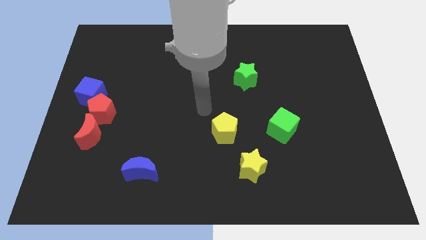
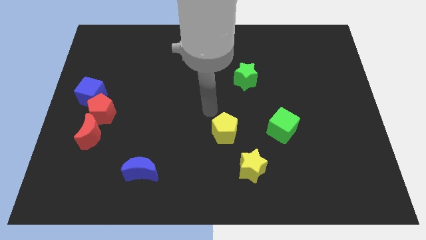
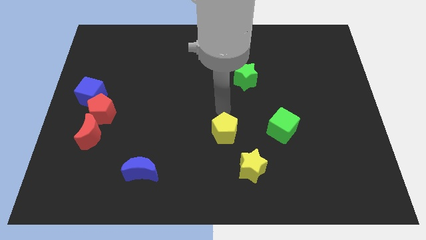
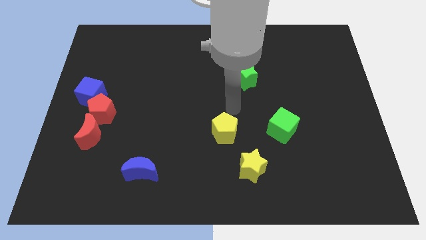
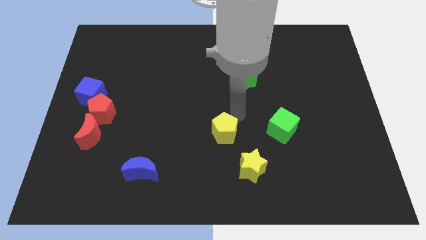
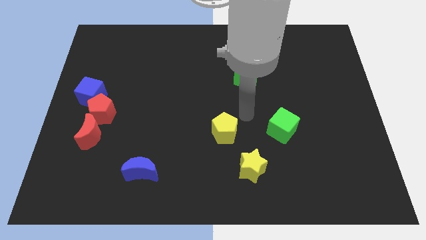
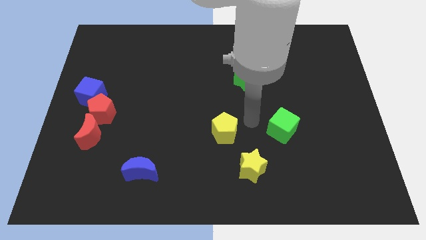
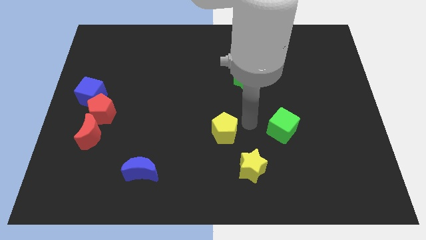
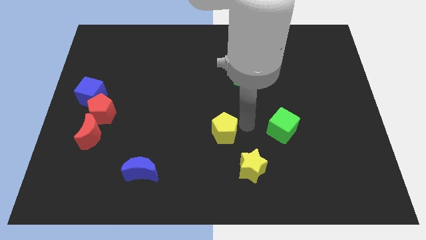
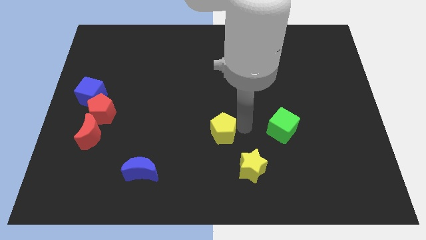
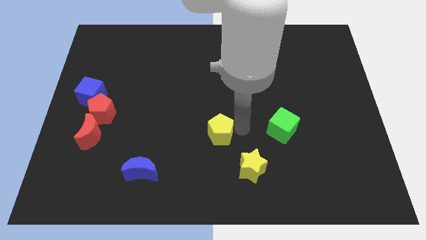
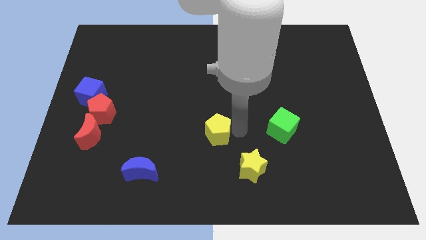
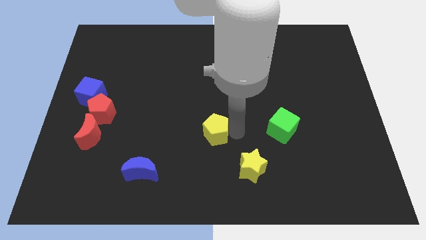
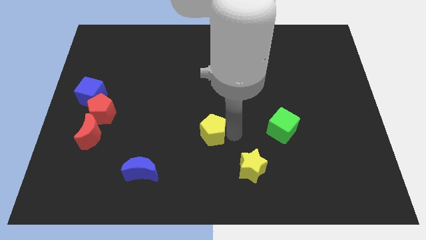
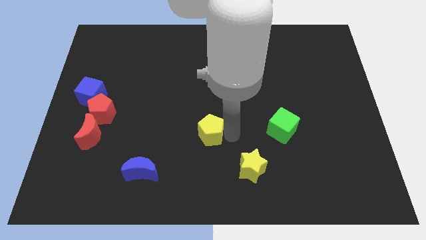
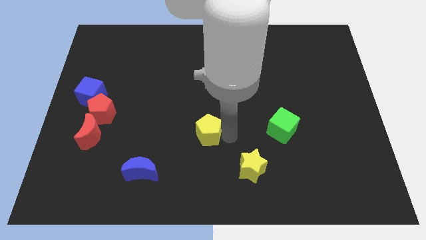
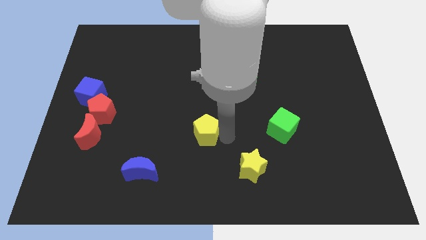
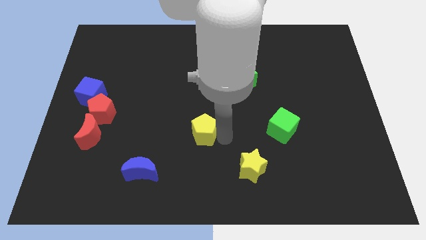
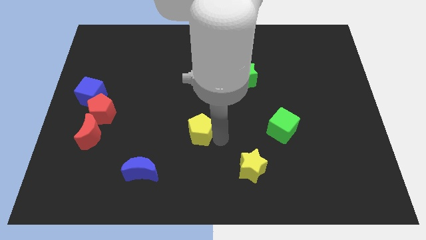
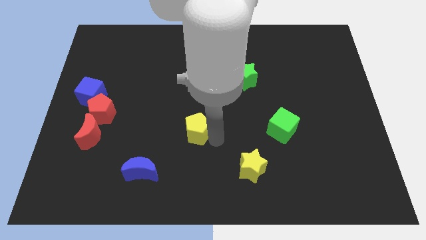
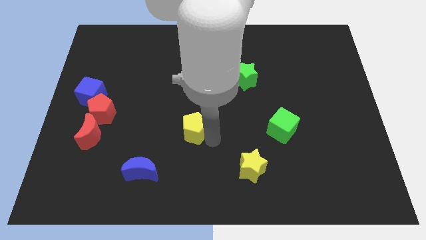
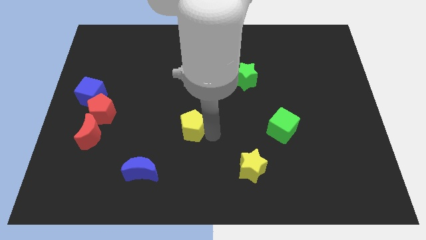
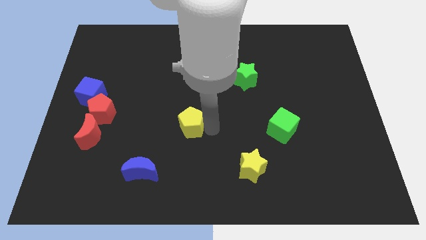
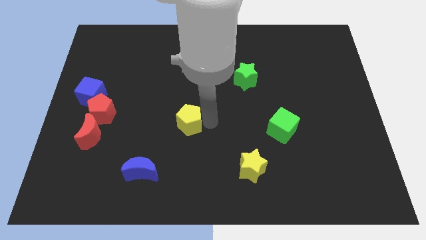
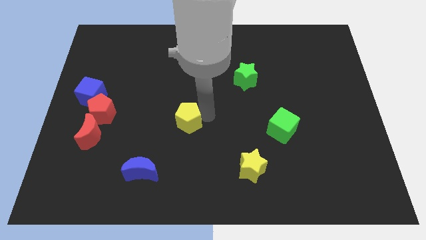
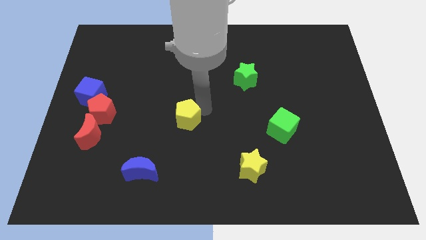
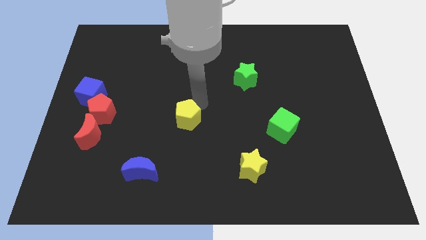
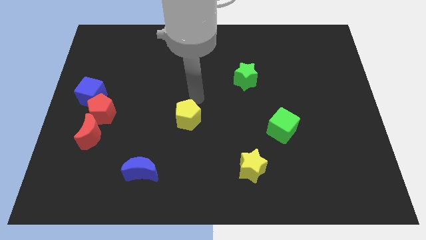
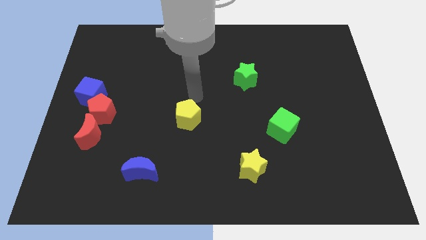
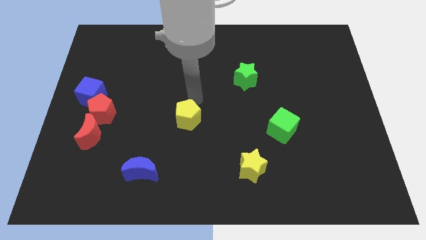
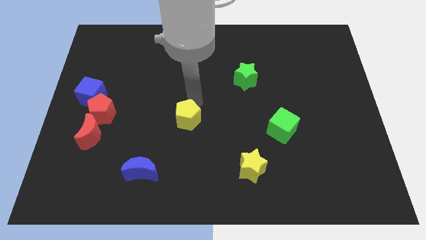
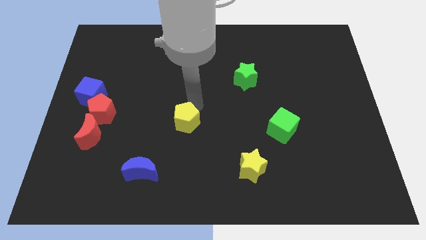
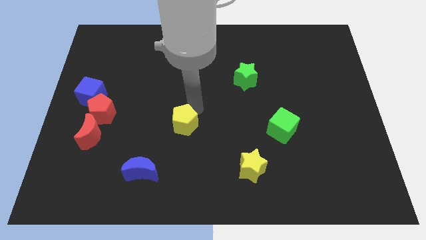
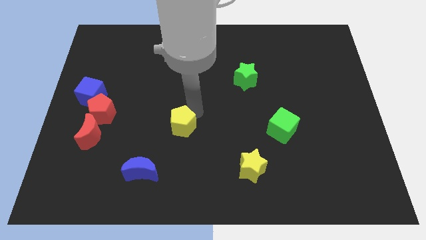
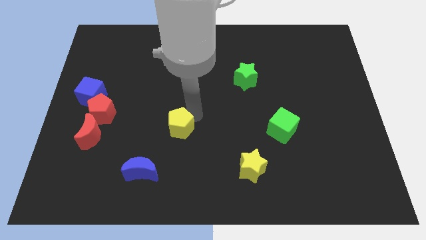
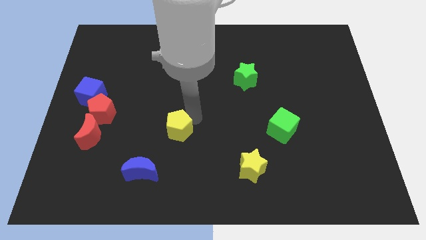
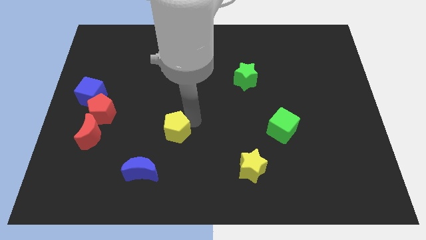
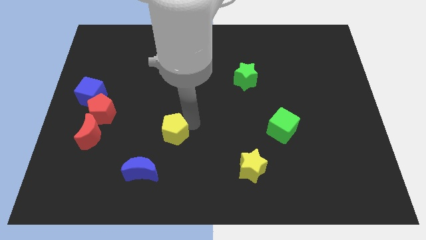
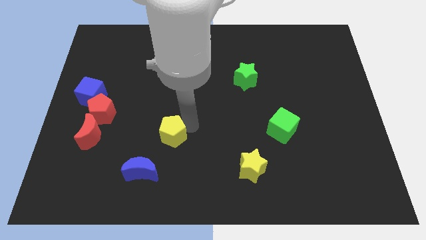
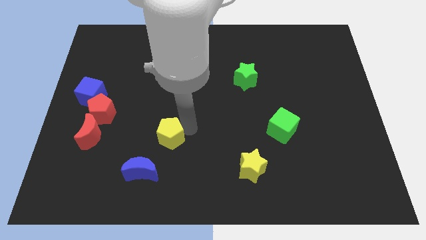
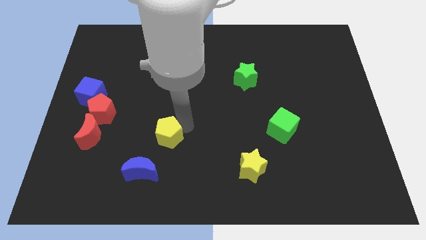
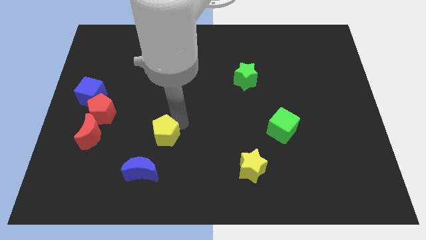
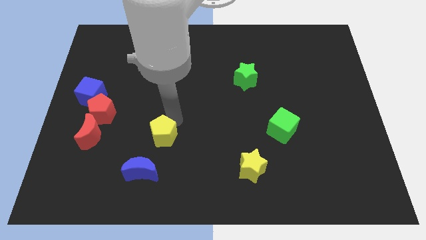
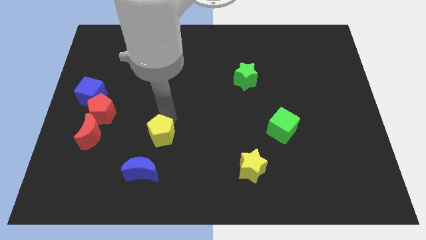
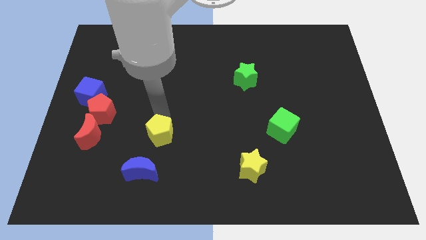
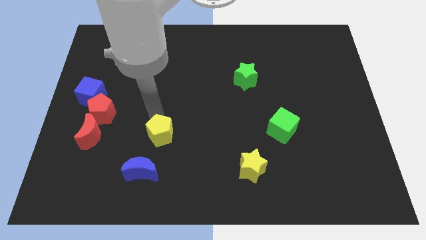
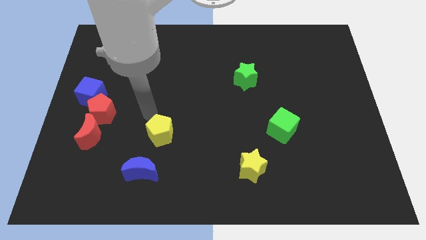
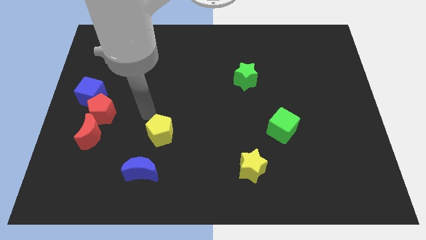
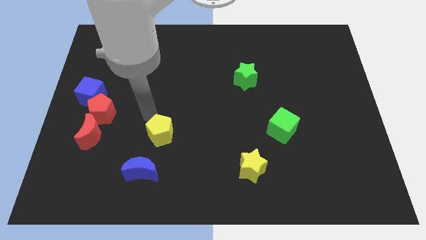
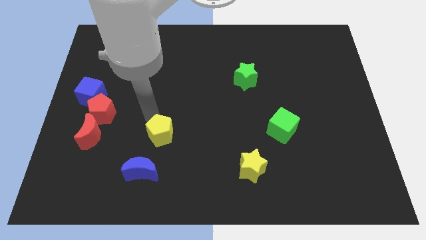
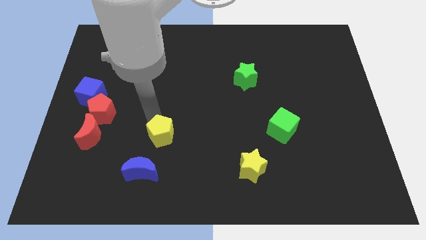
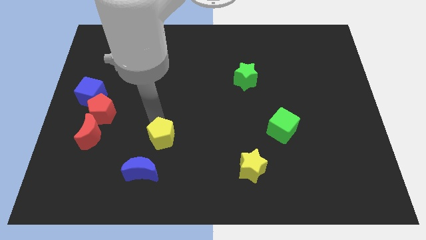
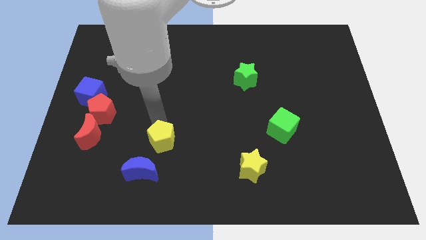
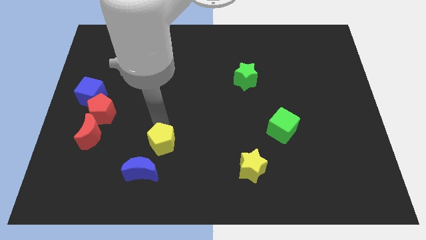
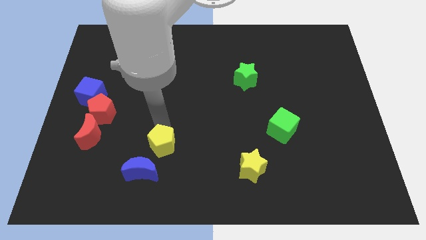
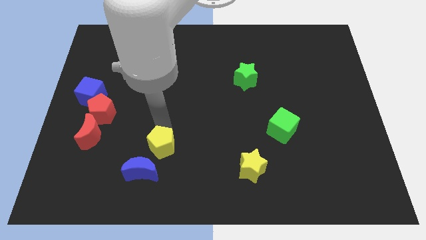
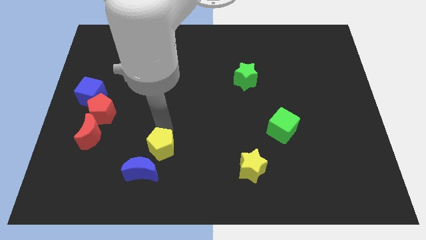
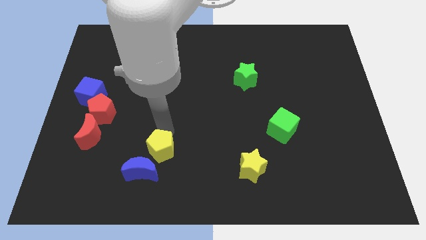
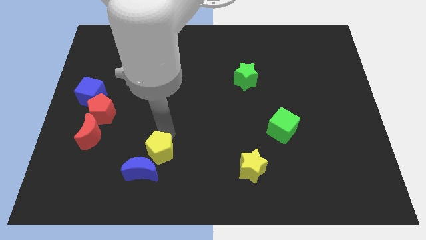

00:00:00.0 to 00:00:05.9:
put the yellow pentagon to the blue moon

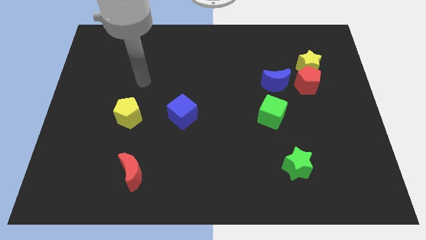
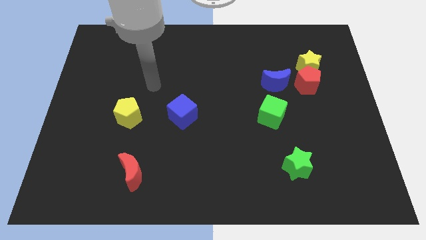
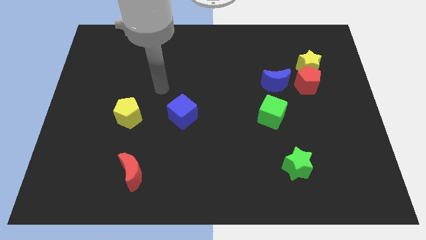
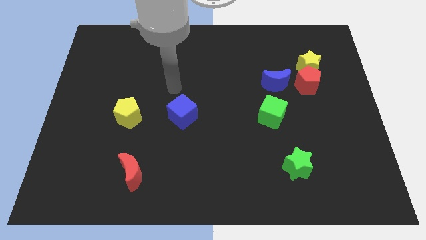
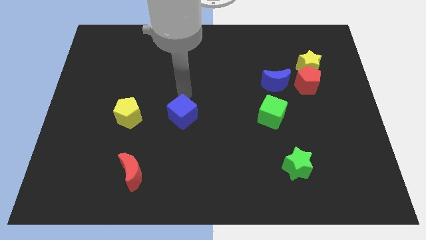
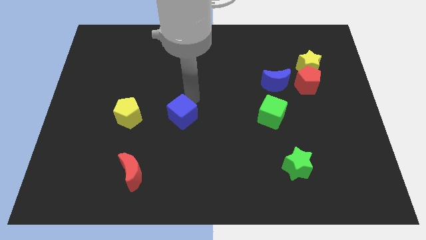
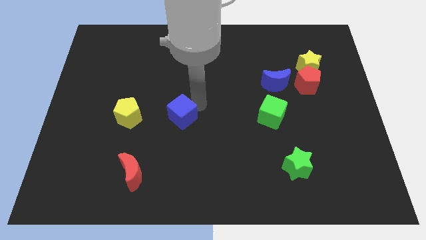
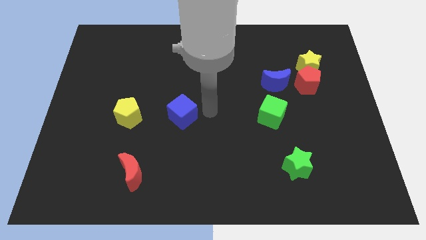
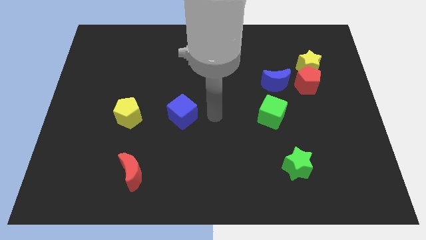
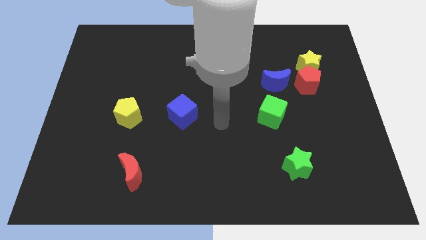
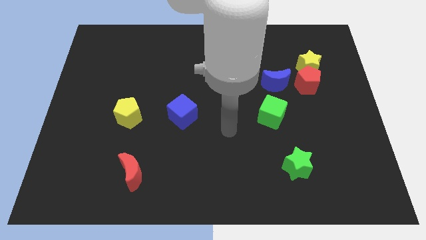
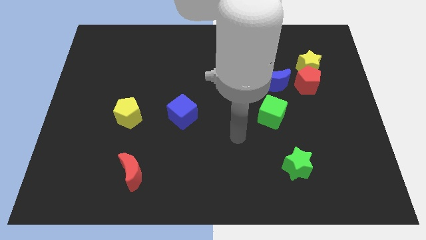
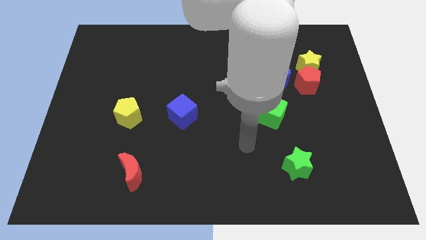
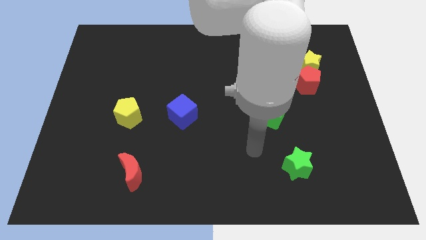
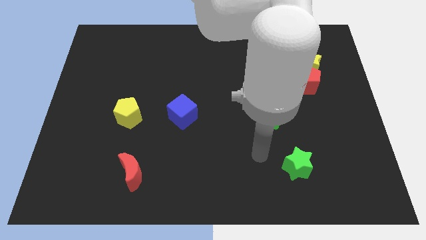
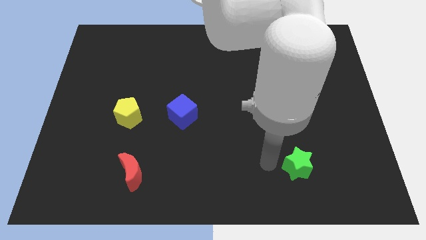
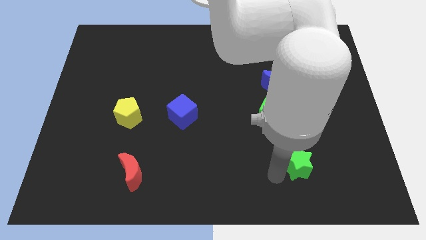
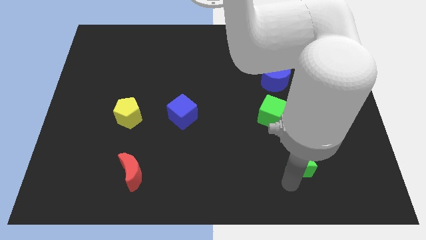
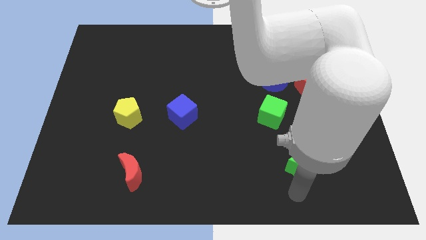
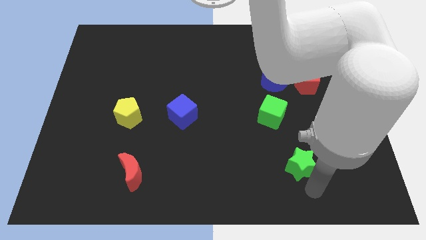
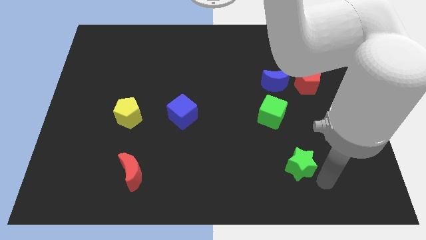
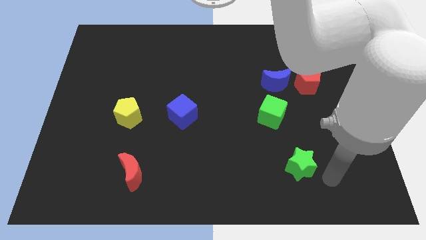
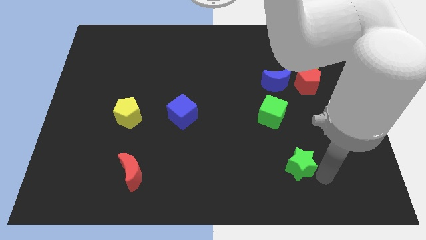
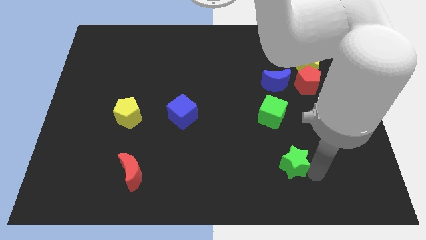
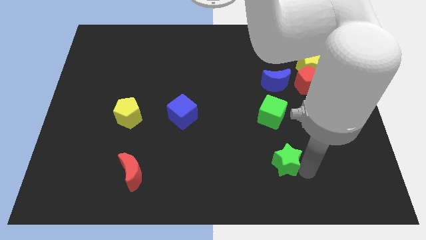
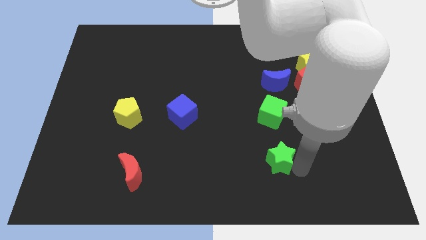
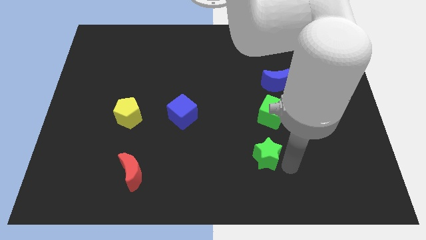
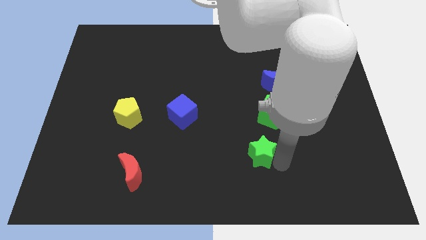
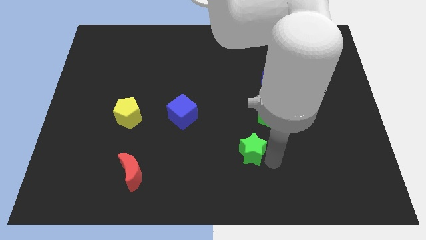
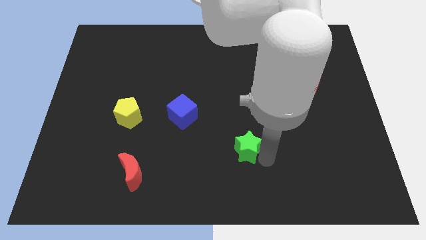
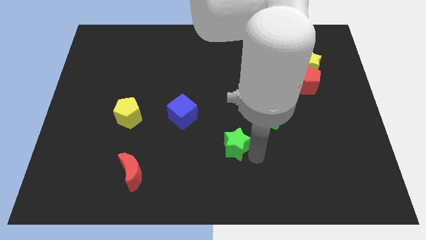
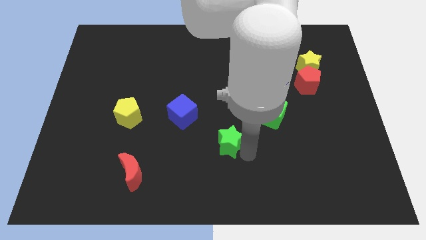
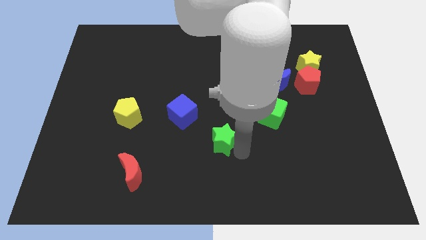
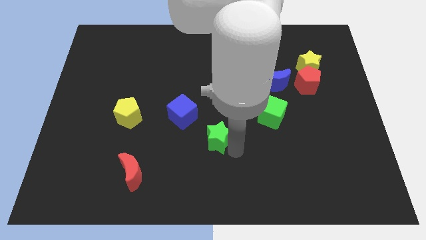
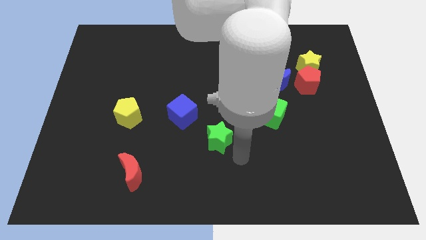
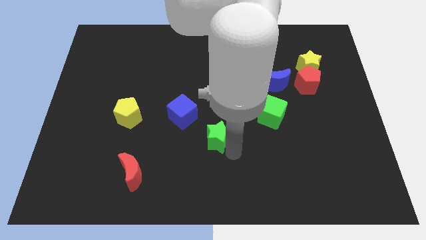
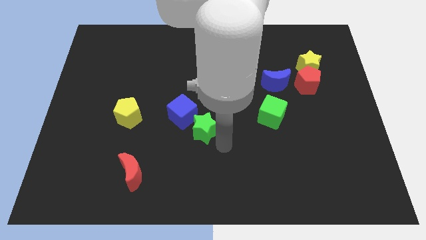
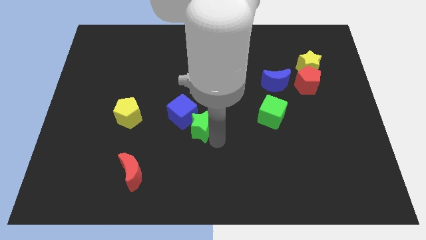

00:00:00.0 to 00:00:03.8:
put the green star towards the blue cube
